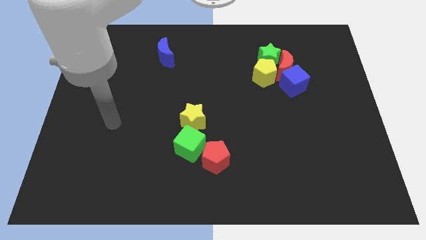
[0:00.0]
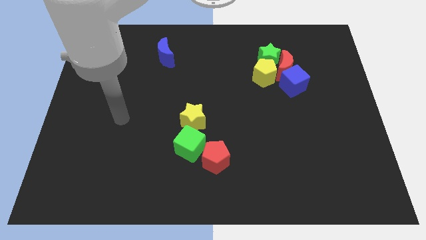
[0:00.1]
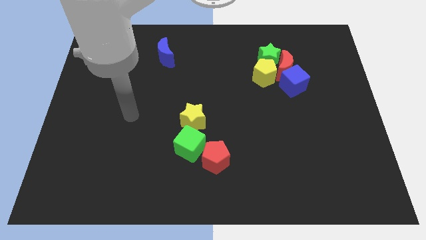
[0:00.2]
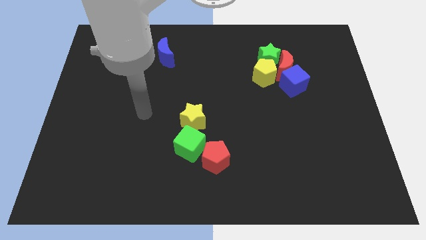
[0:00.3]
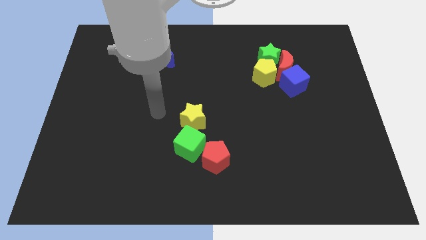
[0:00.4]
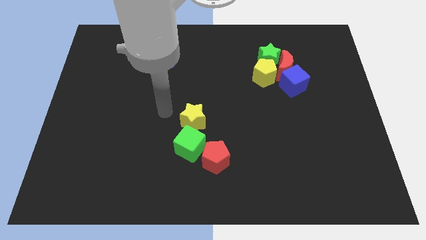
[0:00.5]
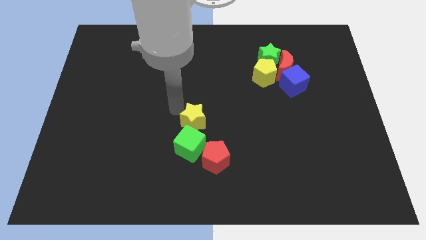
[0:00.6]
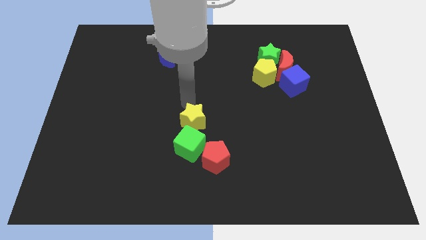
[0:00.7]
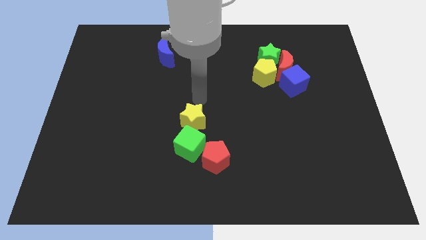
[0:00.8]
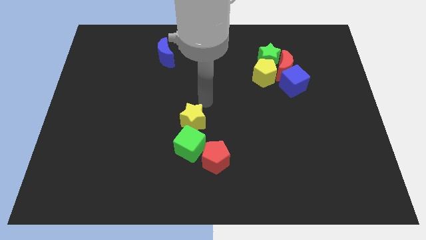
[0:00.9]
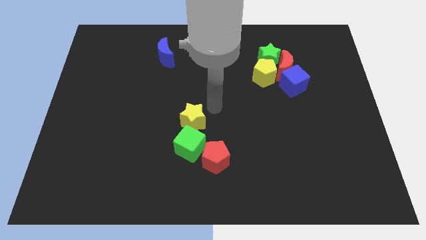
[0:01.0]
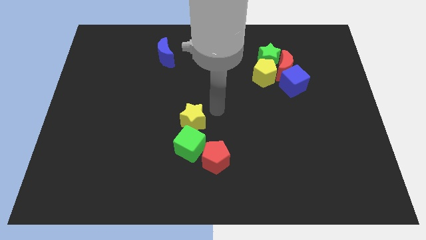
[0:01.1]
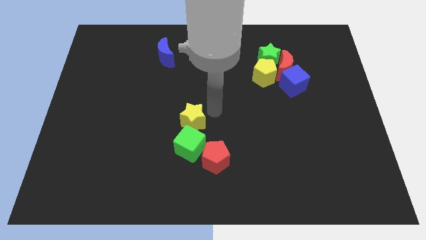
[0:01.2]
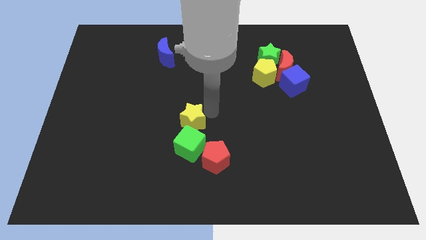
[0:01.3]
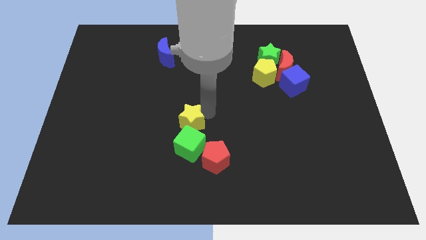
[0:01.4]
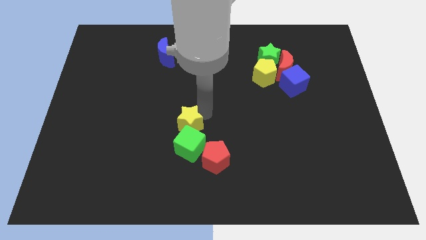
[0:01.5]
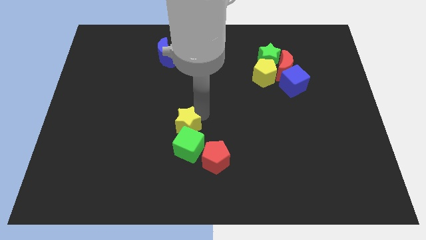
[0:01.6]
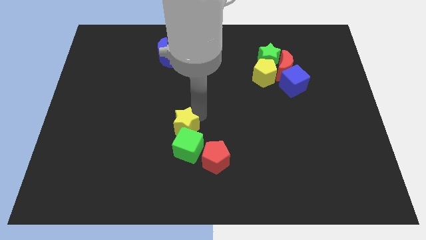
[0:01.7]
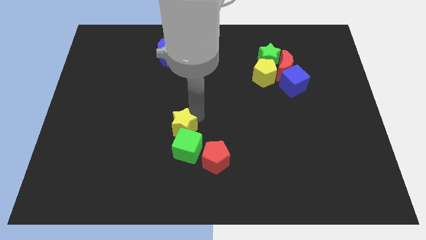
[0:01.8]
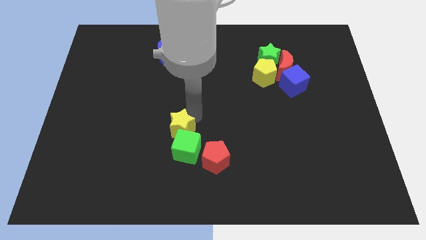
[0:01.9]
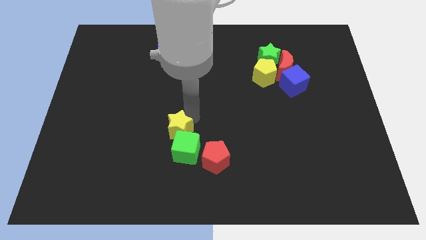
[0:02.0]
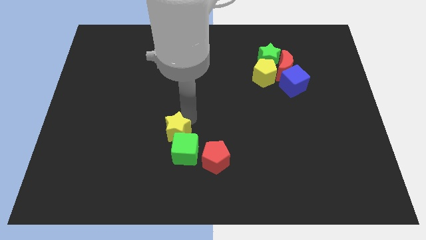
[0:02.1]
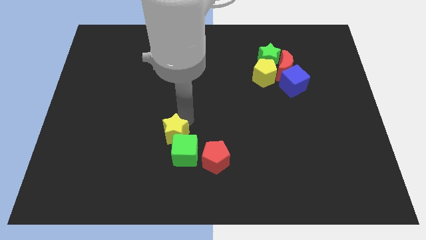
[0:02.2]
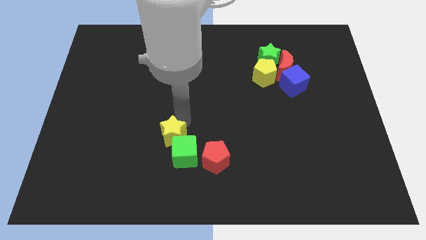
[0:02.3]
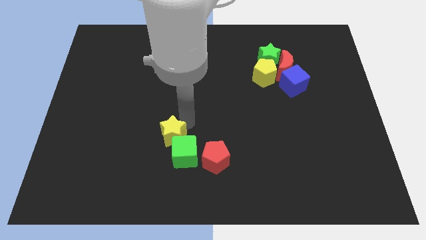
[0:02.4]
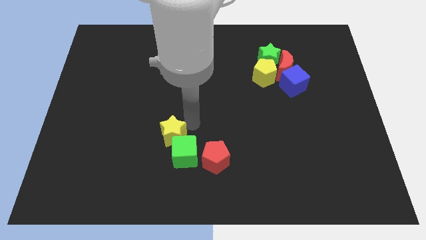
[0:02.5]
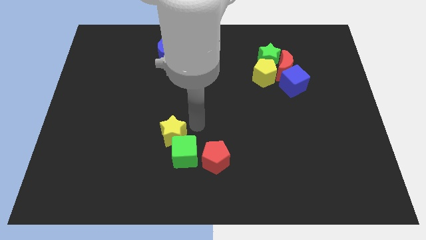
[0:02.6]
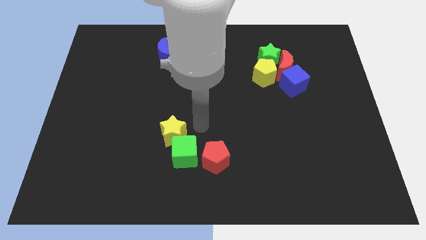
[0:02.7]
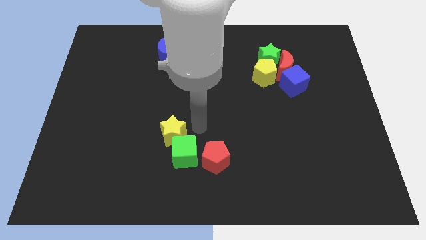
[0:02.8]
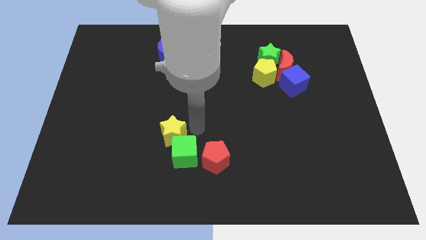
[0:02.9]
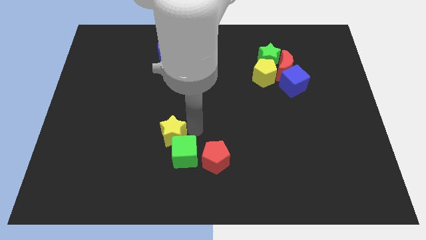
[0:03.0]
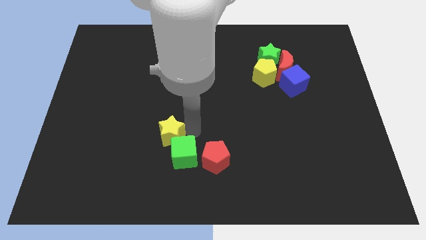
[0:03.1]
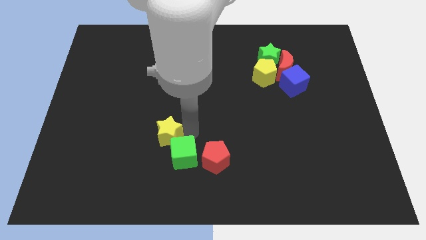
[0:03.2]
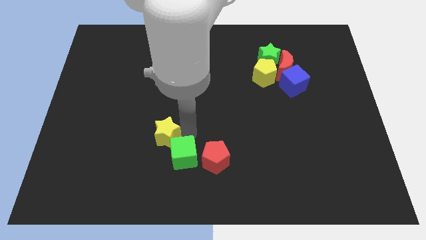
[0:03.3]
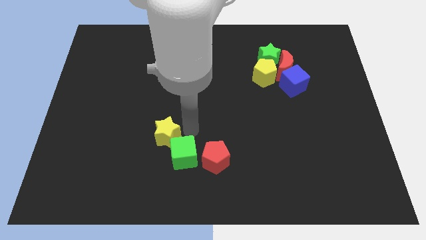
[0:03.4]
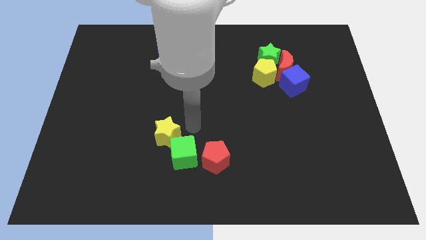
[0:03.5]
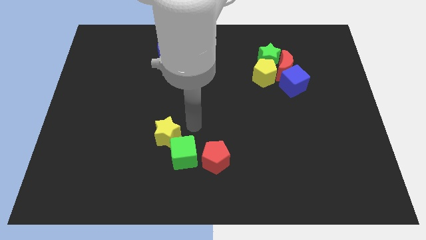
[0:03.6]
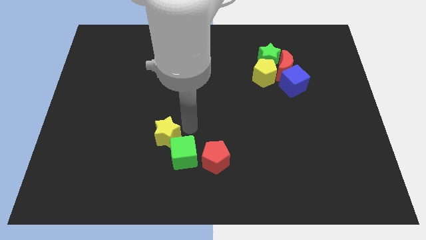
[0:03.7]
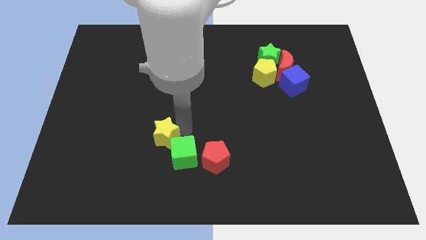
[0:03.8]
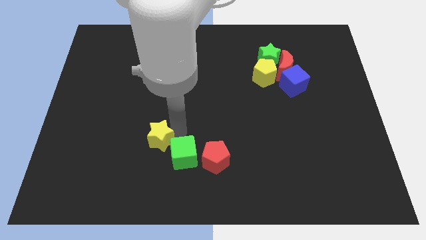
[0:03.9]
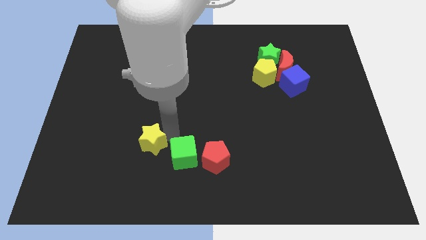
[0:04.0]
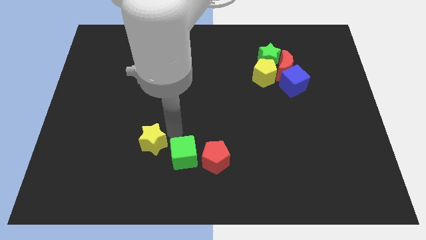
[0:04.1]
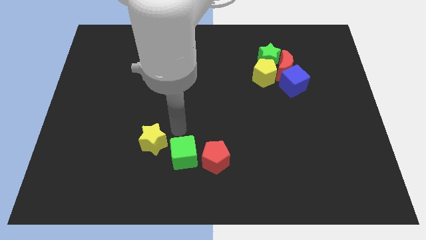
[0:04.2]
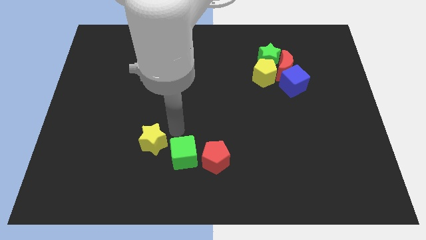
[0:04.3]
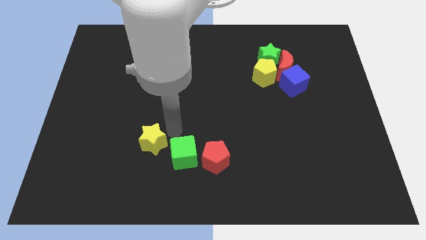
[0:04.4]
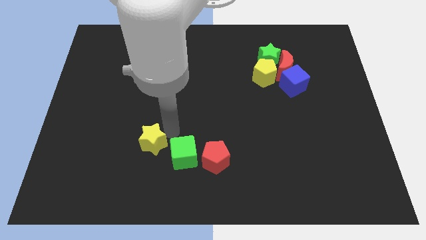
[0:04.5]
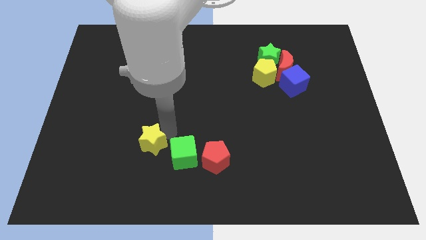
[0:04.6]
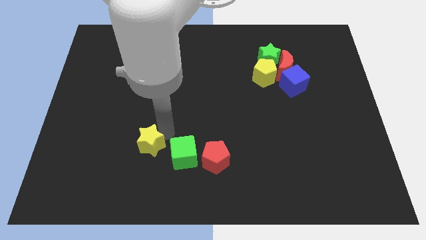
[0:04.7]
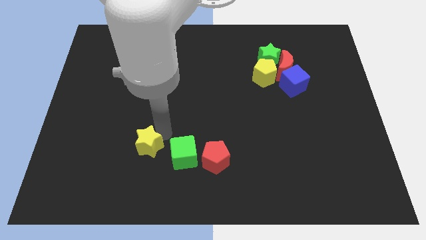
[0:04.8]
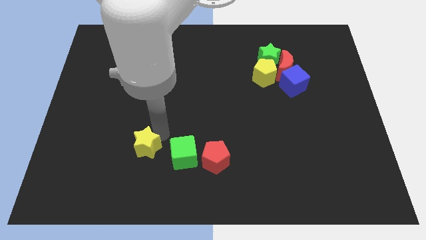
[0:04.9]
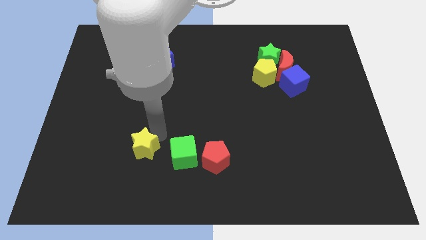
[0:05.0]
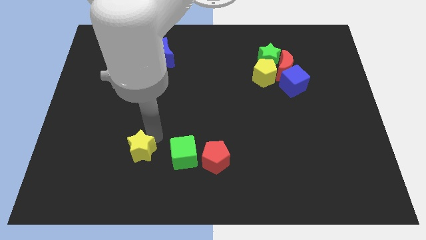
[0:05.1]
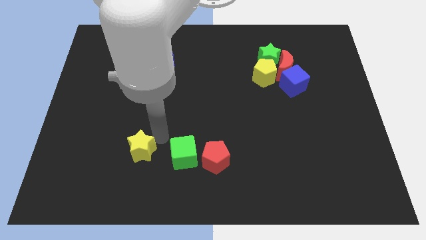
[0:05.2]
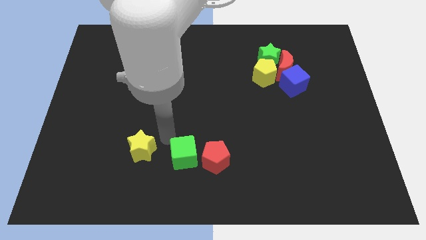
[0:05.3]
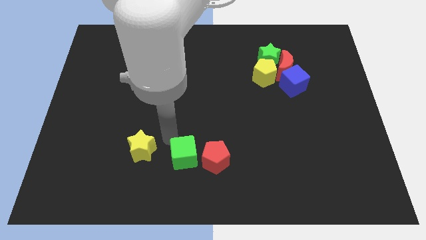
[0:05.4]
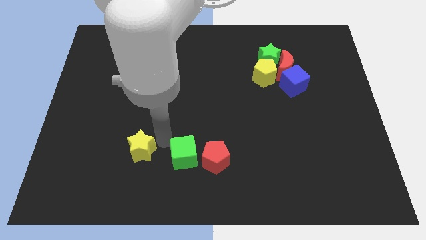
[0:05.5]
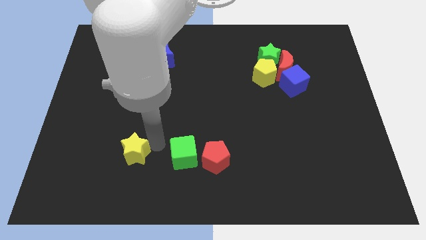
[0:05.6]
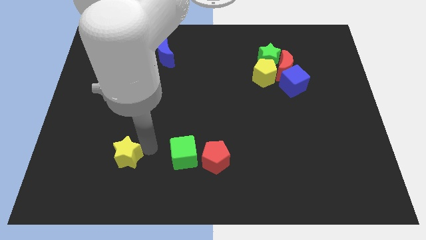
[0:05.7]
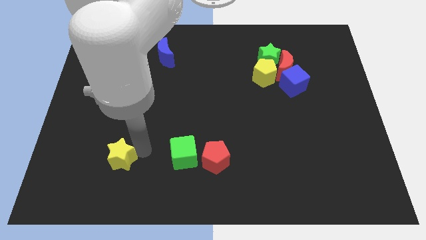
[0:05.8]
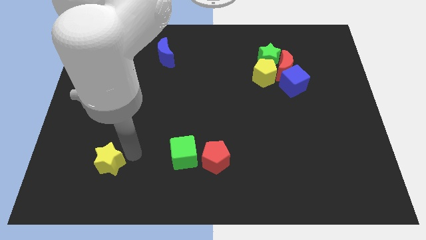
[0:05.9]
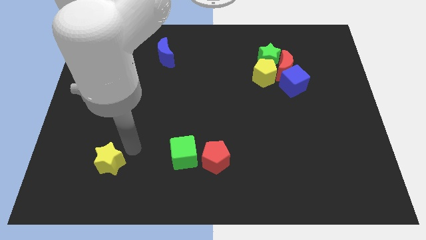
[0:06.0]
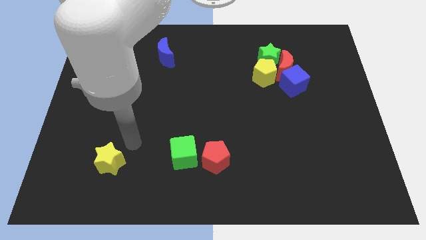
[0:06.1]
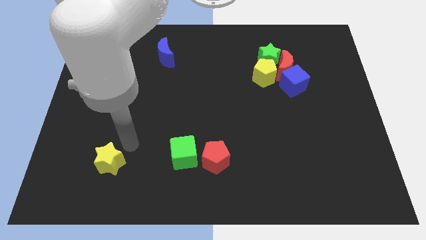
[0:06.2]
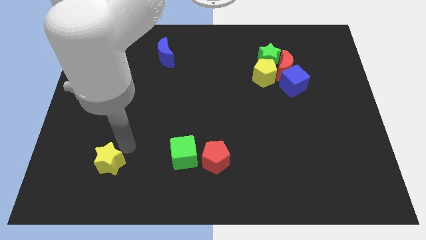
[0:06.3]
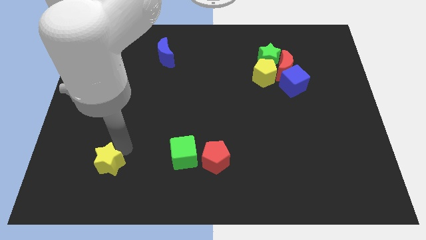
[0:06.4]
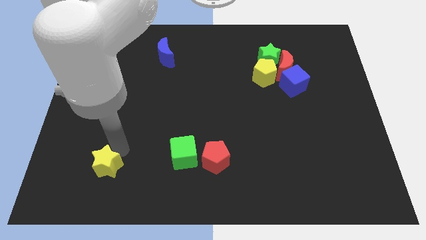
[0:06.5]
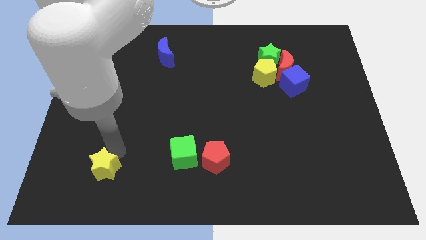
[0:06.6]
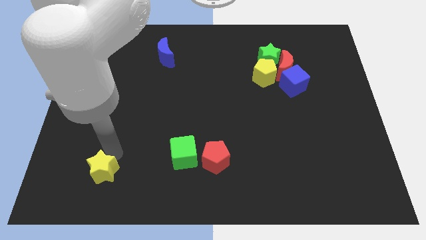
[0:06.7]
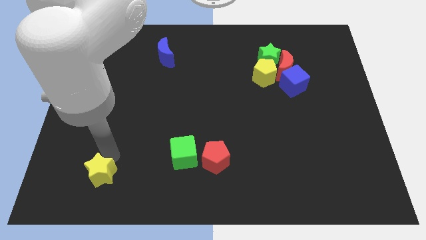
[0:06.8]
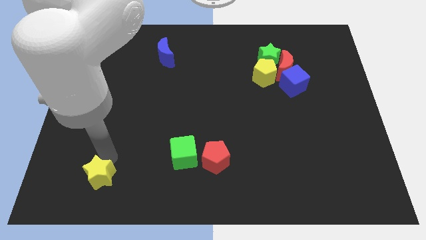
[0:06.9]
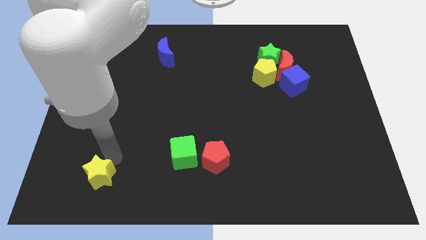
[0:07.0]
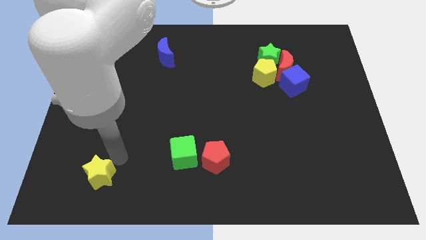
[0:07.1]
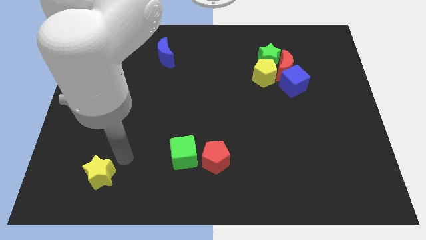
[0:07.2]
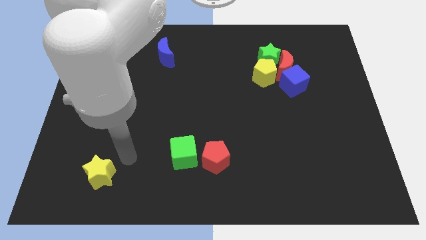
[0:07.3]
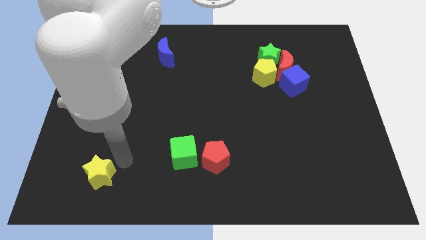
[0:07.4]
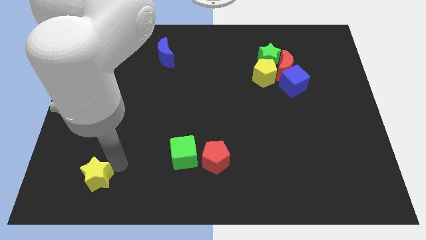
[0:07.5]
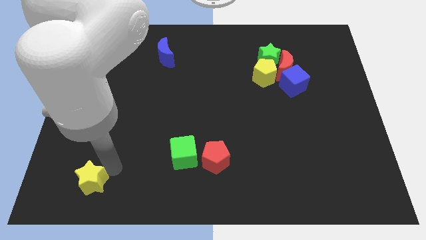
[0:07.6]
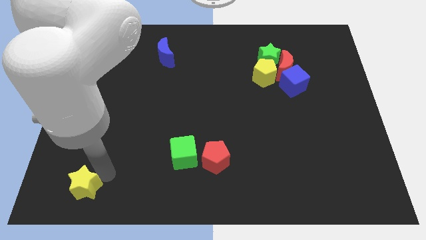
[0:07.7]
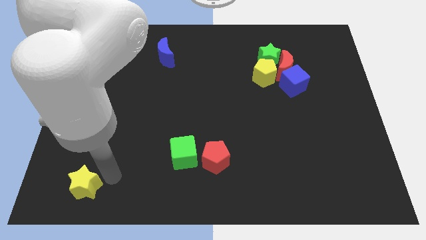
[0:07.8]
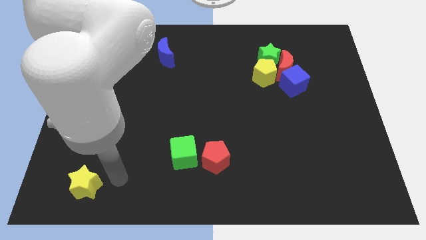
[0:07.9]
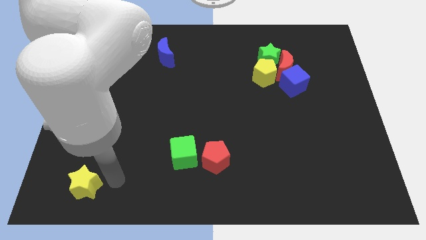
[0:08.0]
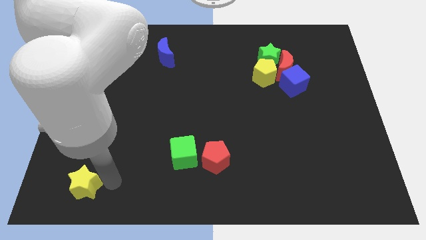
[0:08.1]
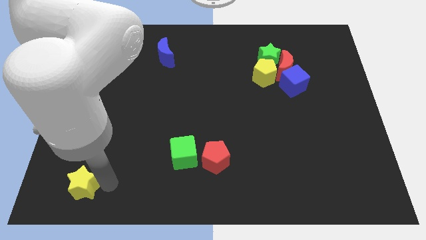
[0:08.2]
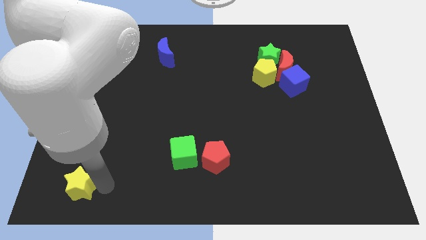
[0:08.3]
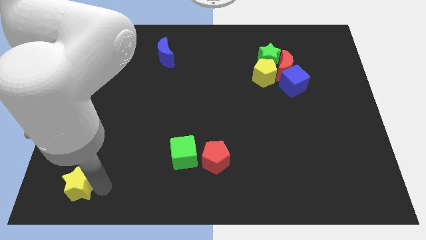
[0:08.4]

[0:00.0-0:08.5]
move the yellow star to the bottom left of the board
